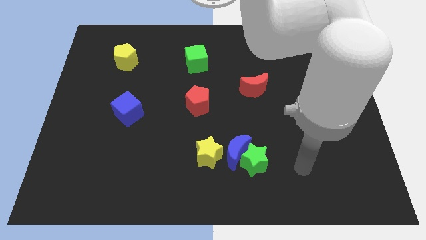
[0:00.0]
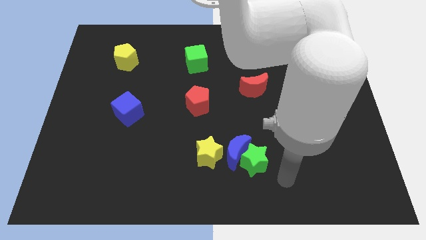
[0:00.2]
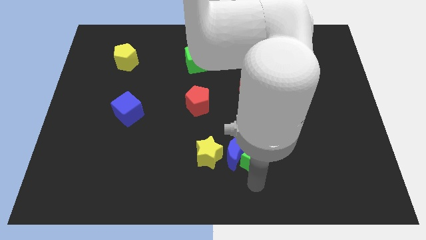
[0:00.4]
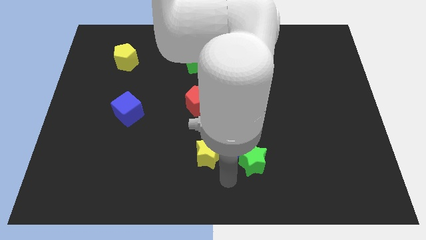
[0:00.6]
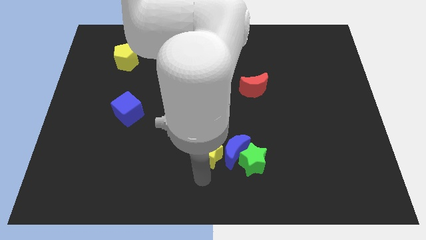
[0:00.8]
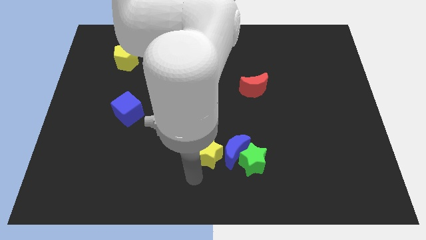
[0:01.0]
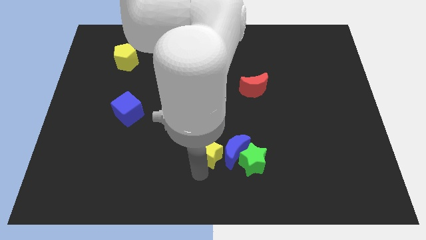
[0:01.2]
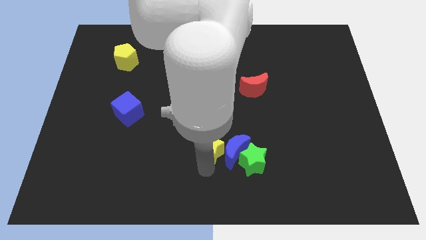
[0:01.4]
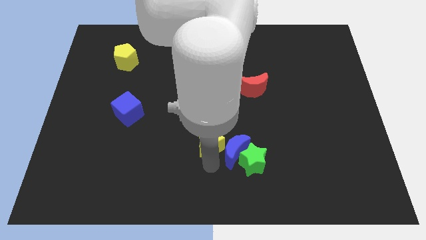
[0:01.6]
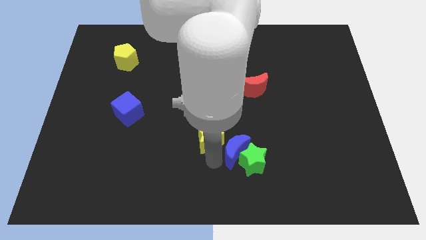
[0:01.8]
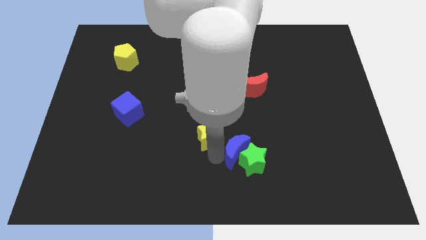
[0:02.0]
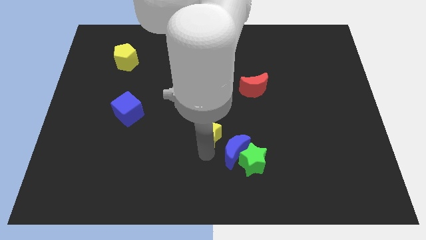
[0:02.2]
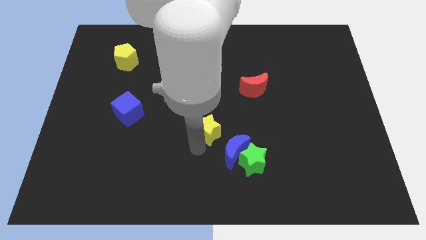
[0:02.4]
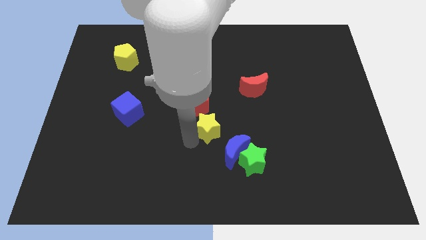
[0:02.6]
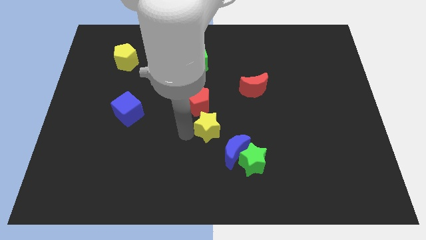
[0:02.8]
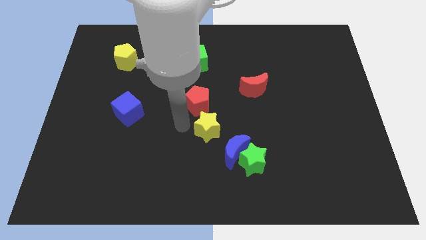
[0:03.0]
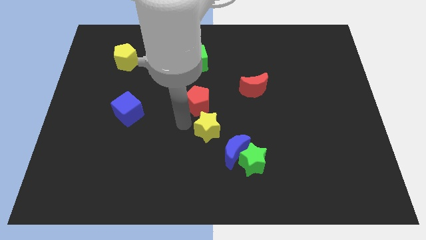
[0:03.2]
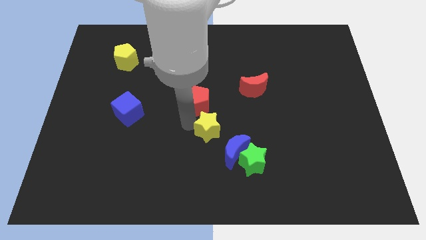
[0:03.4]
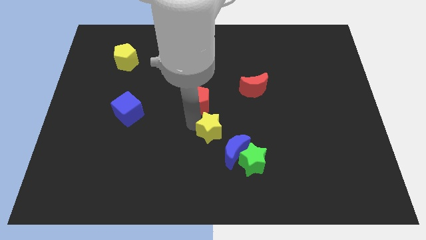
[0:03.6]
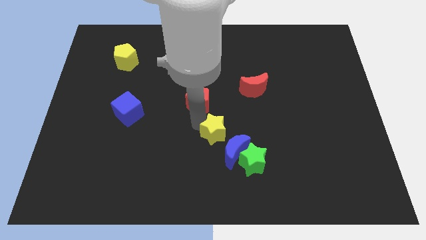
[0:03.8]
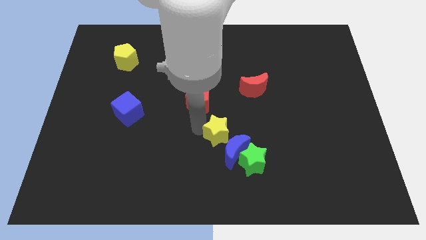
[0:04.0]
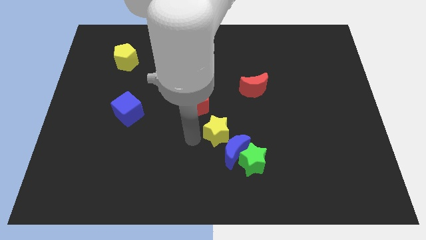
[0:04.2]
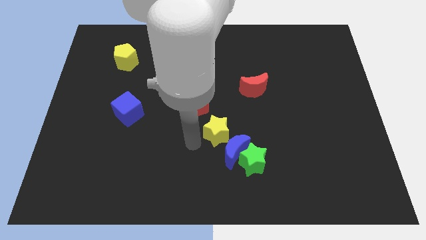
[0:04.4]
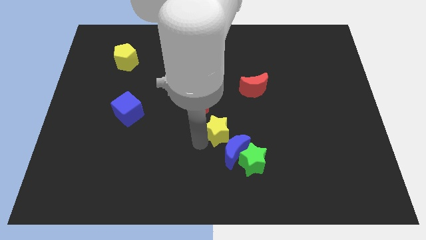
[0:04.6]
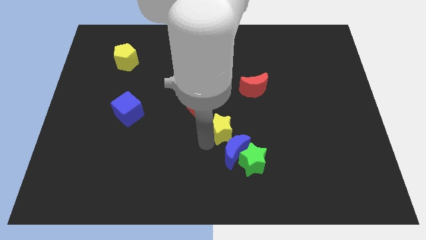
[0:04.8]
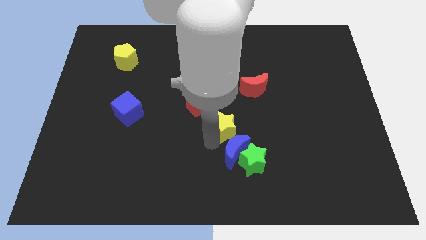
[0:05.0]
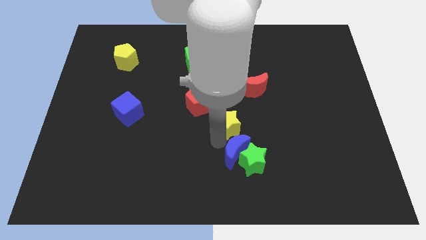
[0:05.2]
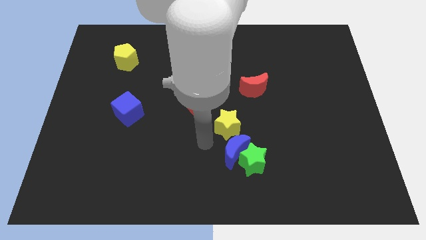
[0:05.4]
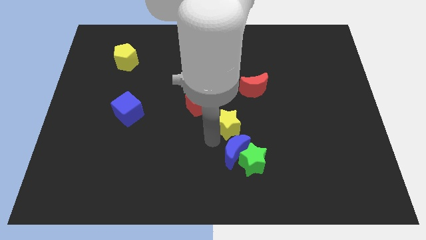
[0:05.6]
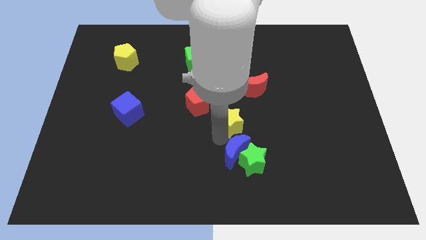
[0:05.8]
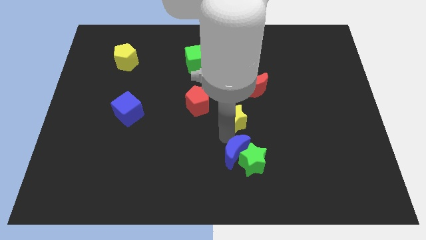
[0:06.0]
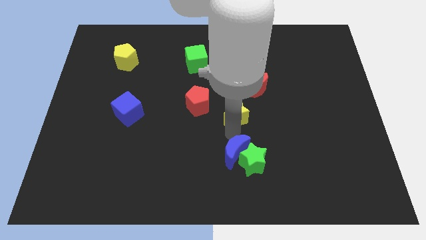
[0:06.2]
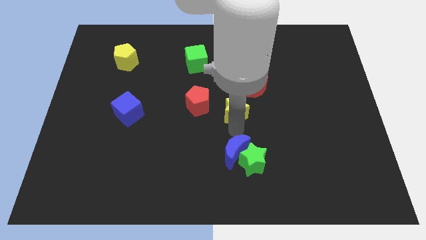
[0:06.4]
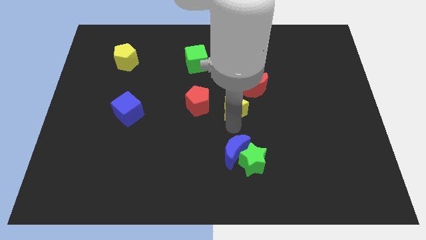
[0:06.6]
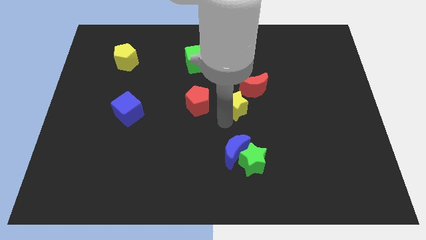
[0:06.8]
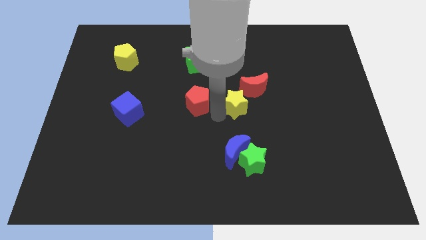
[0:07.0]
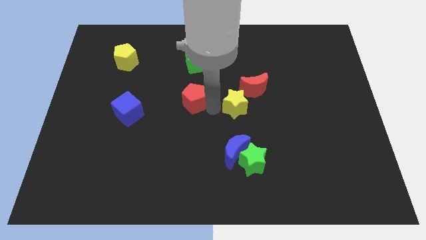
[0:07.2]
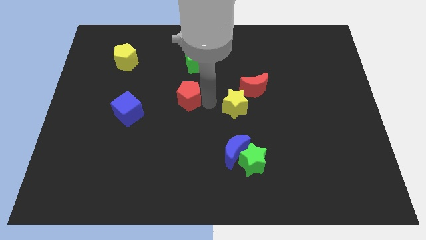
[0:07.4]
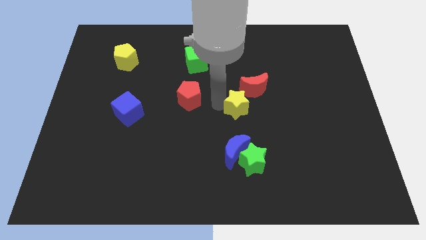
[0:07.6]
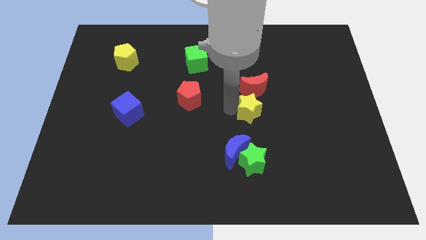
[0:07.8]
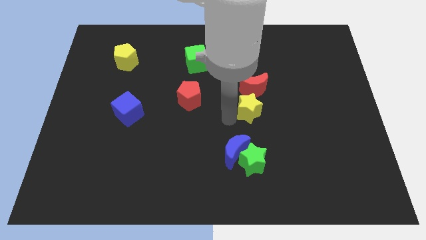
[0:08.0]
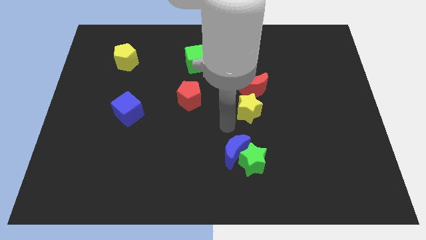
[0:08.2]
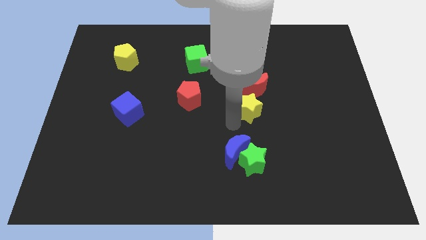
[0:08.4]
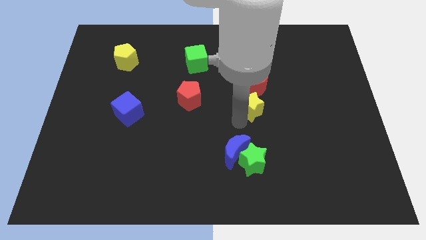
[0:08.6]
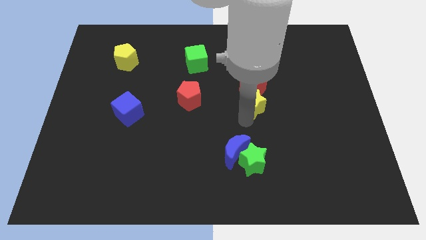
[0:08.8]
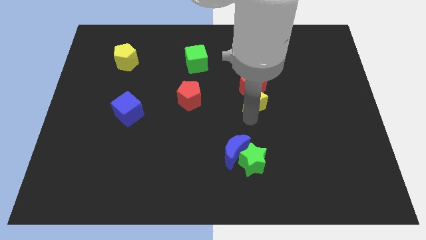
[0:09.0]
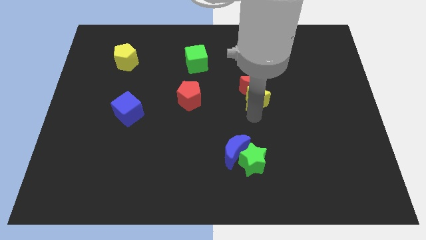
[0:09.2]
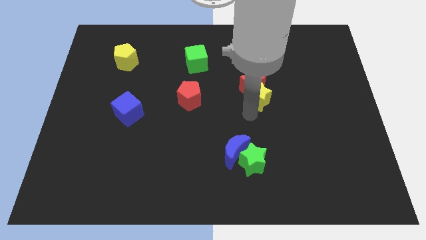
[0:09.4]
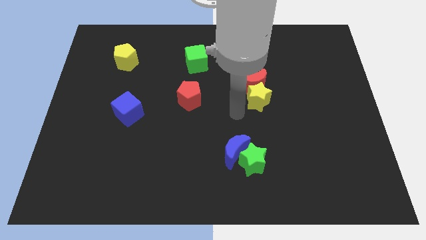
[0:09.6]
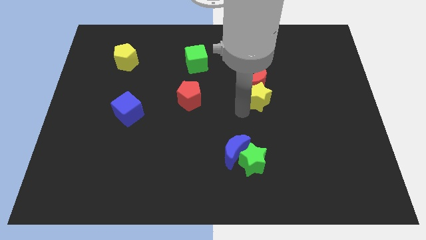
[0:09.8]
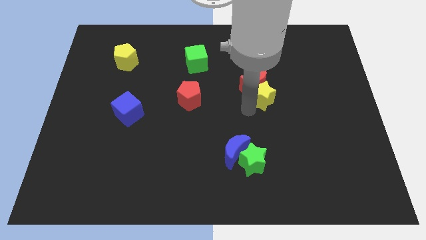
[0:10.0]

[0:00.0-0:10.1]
move the yellow star up and right

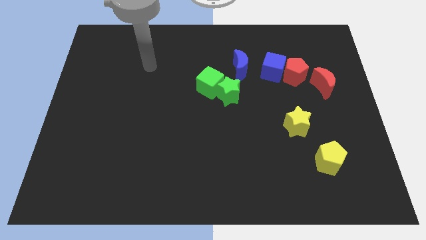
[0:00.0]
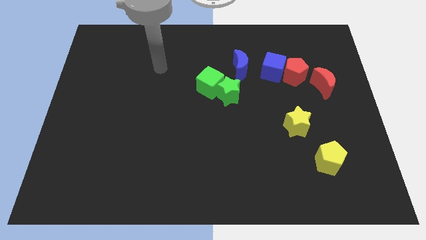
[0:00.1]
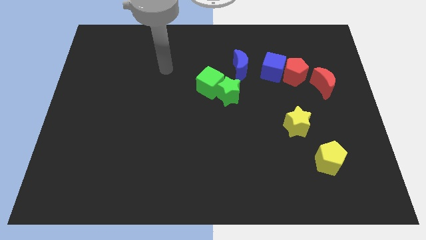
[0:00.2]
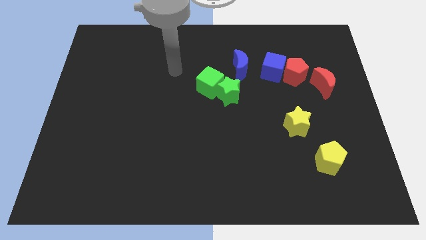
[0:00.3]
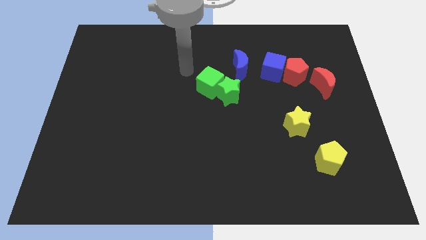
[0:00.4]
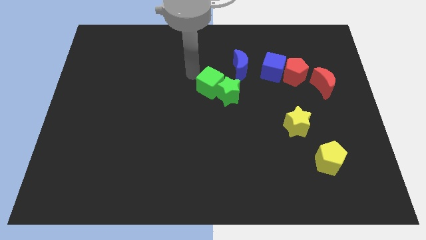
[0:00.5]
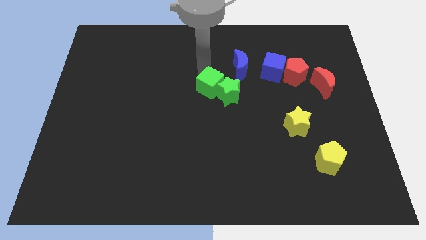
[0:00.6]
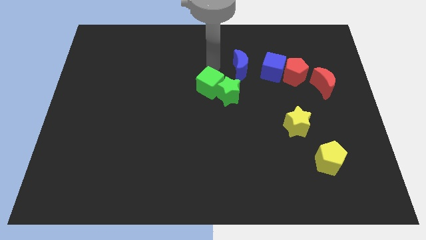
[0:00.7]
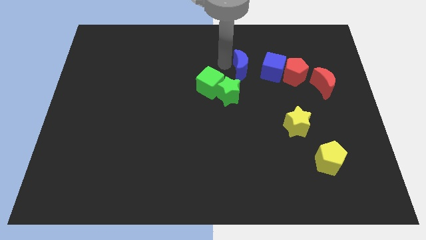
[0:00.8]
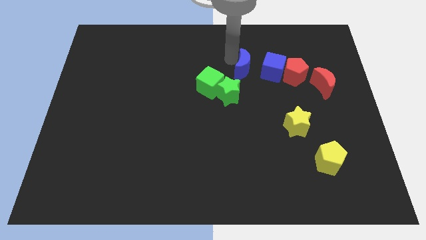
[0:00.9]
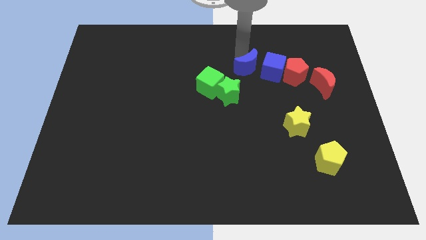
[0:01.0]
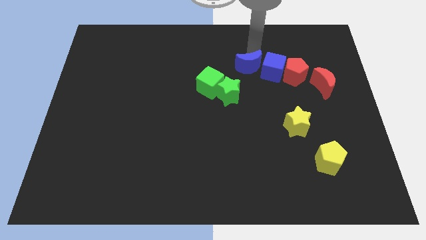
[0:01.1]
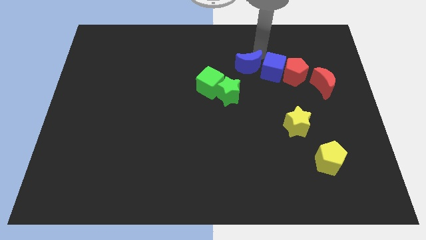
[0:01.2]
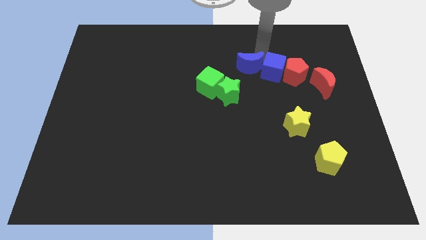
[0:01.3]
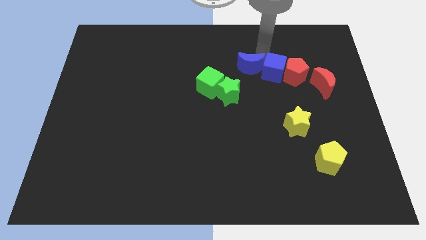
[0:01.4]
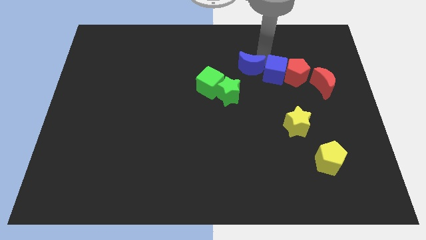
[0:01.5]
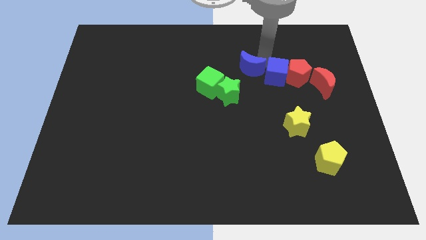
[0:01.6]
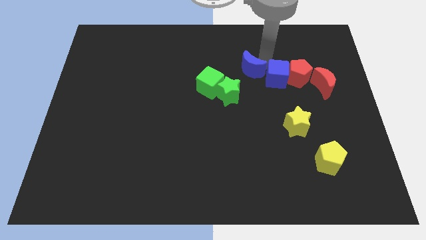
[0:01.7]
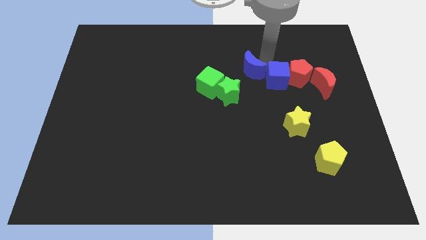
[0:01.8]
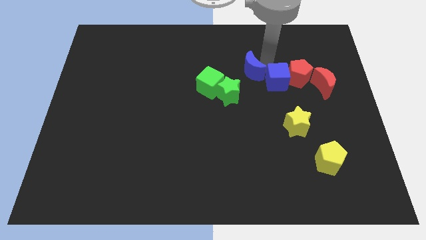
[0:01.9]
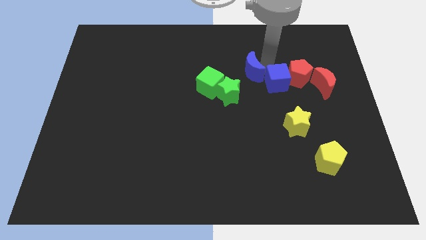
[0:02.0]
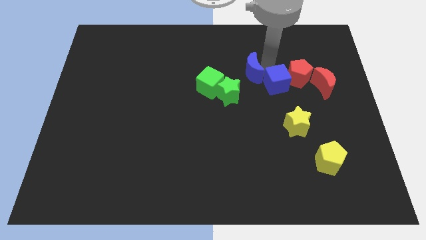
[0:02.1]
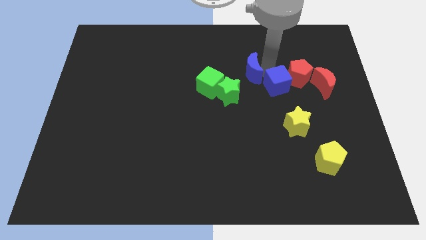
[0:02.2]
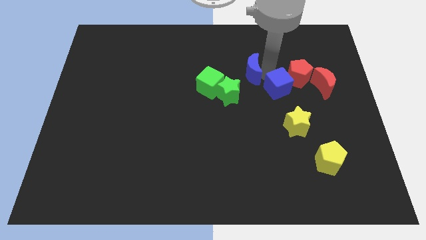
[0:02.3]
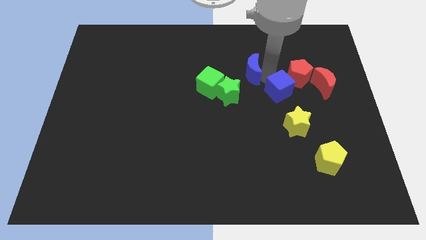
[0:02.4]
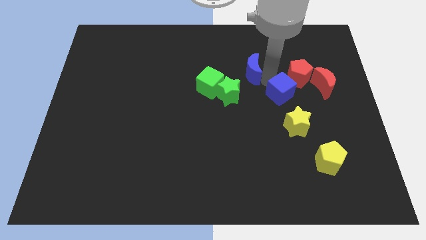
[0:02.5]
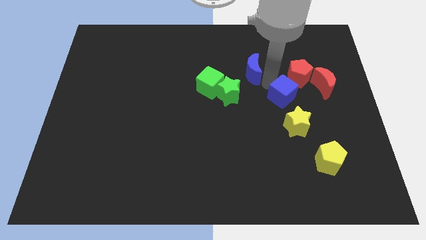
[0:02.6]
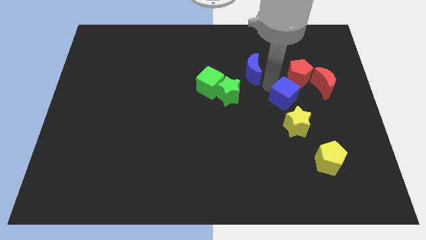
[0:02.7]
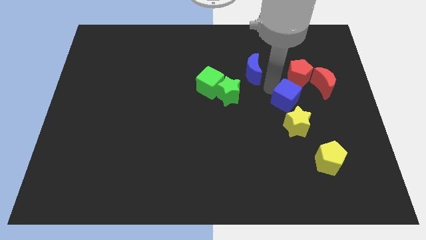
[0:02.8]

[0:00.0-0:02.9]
push the blue cube somewhat downwards and then to the right
